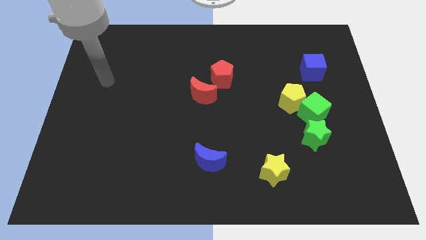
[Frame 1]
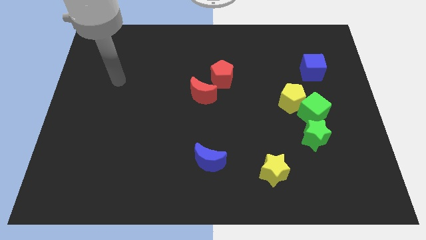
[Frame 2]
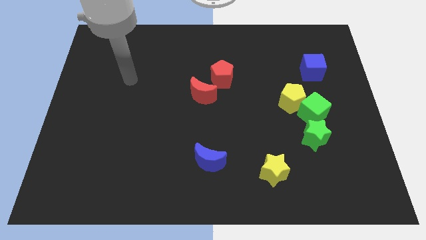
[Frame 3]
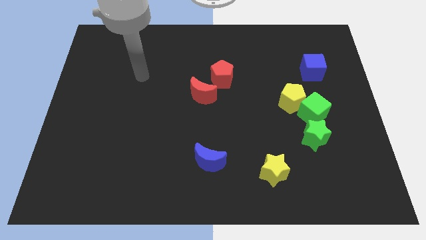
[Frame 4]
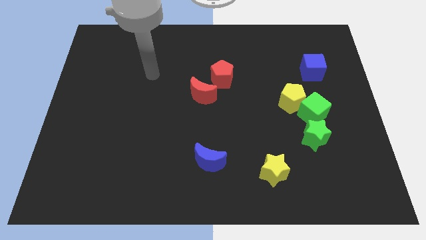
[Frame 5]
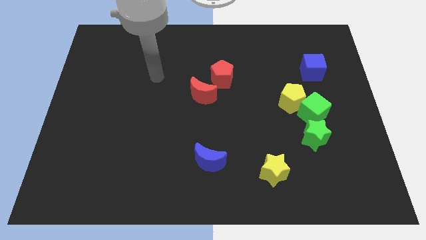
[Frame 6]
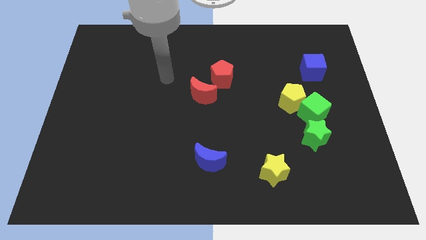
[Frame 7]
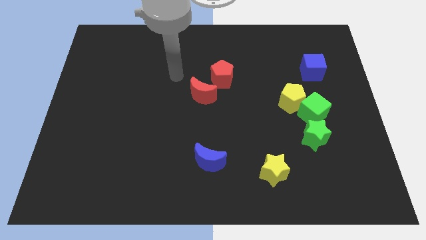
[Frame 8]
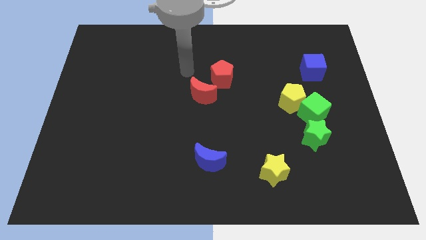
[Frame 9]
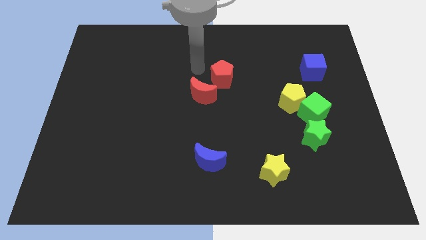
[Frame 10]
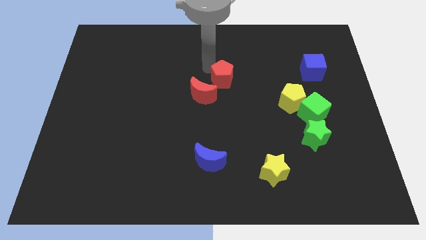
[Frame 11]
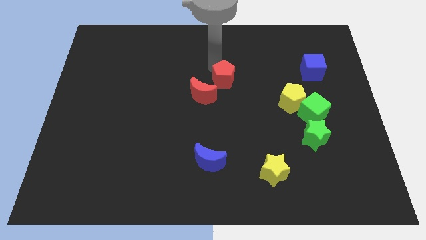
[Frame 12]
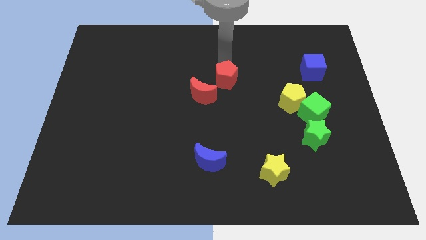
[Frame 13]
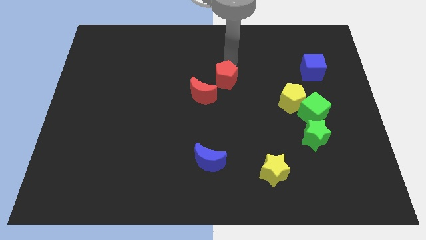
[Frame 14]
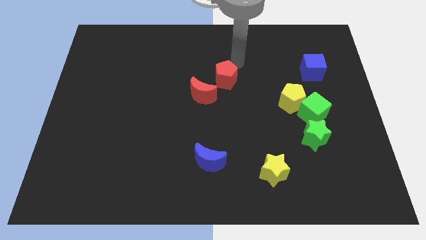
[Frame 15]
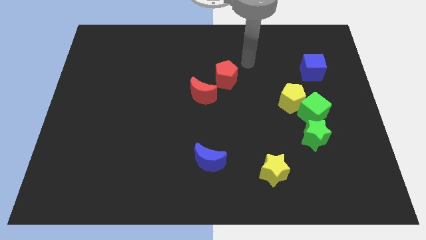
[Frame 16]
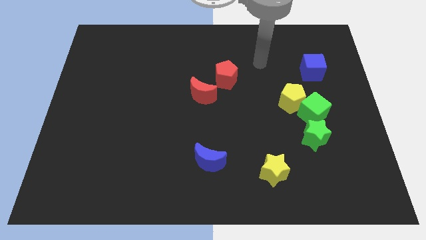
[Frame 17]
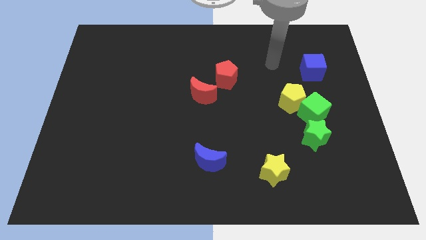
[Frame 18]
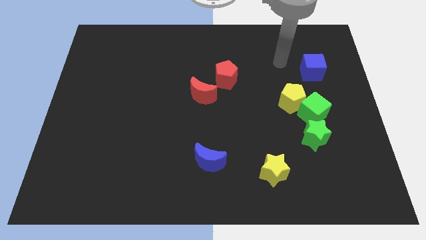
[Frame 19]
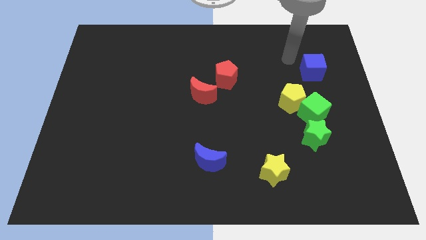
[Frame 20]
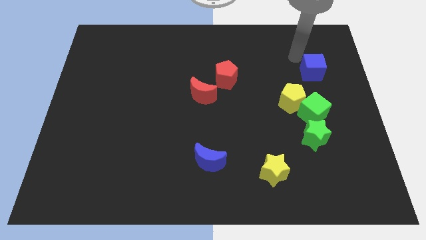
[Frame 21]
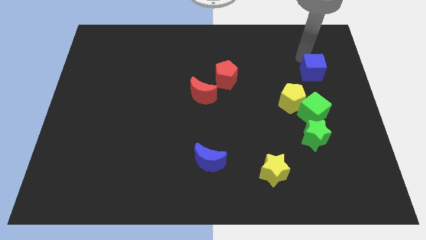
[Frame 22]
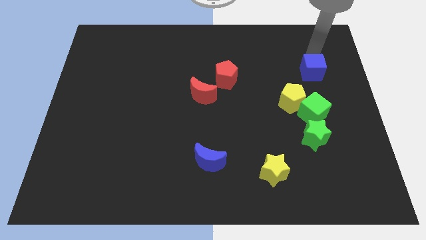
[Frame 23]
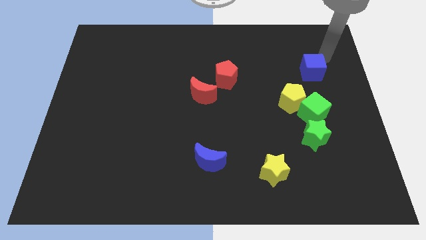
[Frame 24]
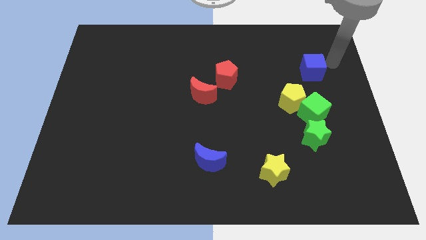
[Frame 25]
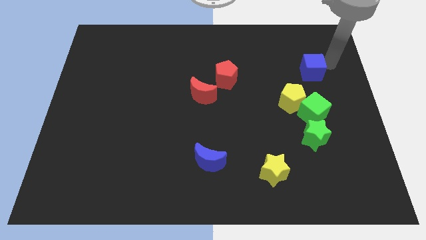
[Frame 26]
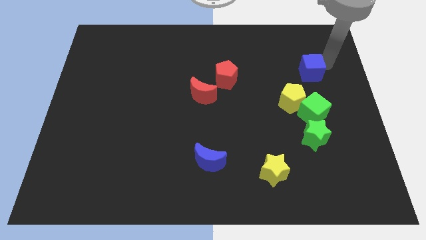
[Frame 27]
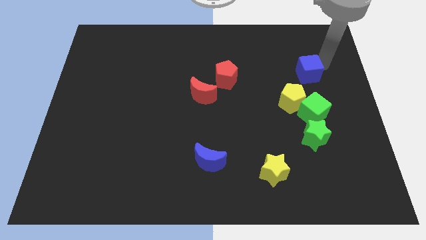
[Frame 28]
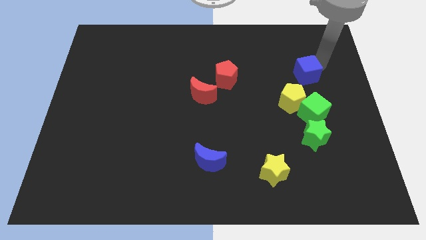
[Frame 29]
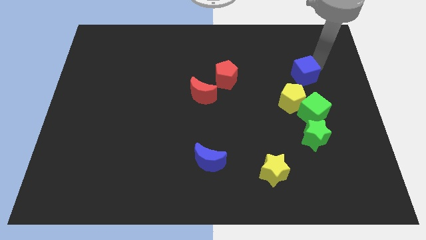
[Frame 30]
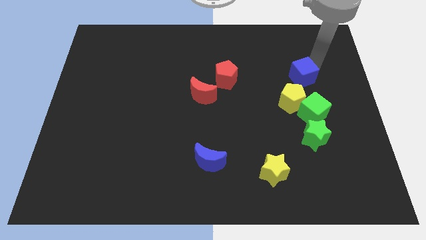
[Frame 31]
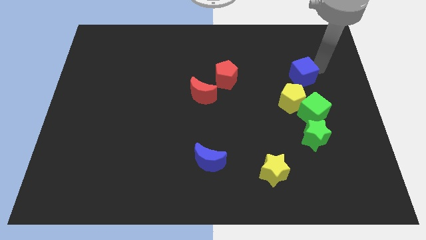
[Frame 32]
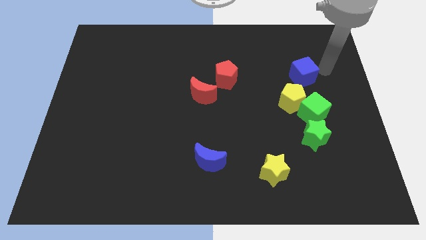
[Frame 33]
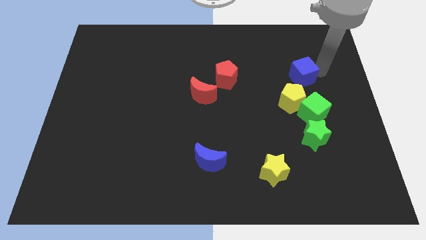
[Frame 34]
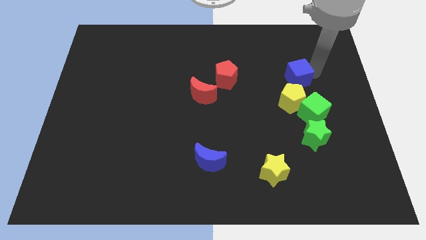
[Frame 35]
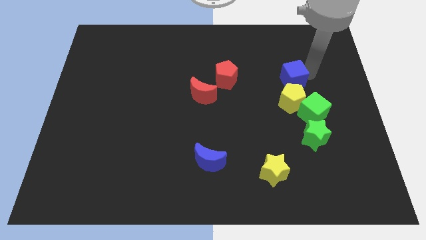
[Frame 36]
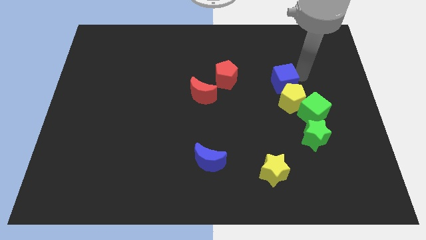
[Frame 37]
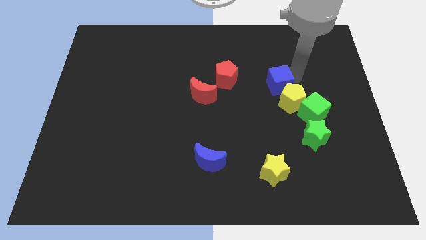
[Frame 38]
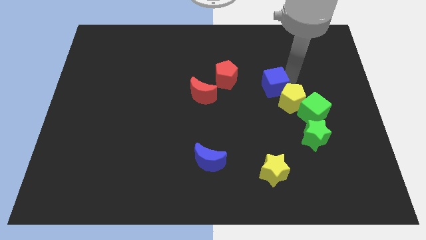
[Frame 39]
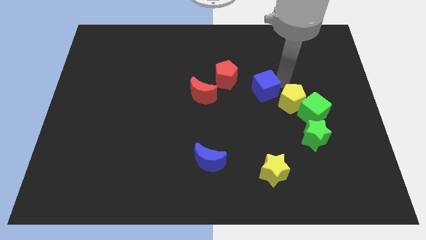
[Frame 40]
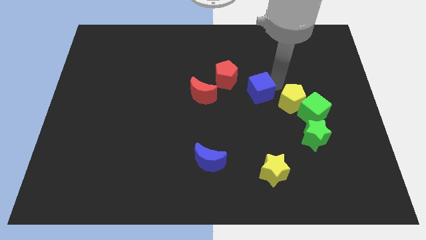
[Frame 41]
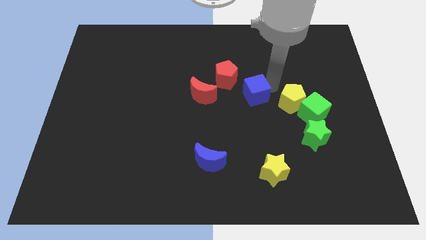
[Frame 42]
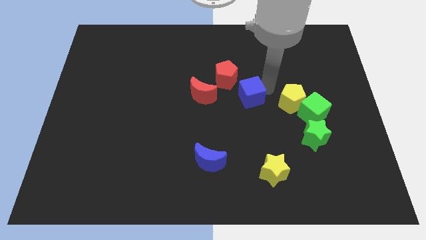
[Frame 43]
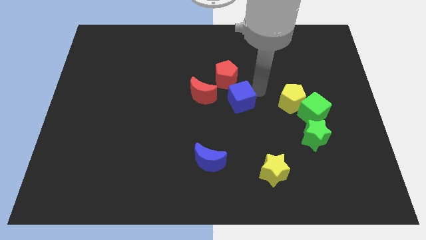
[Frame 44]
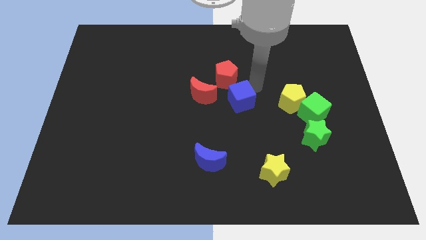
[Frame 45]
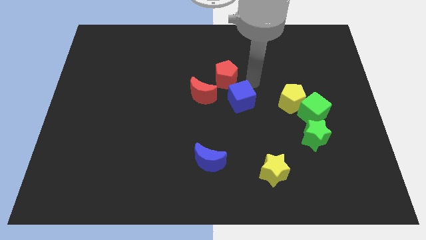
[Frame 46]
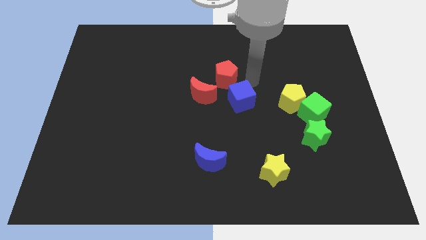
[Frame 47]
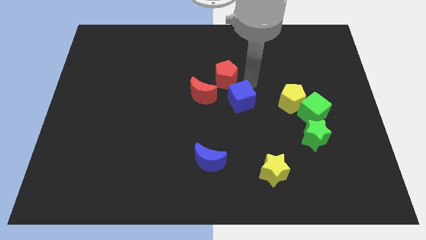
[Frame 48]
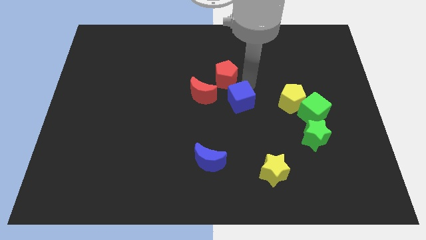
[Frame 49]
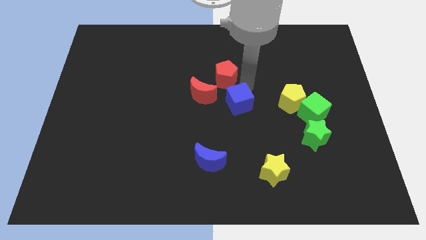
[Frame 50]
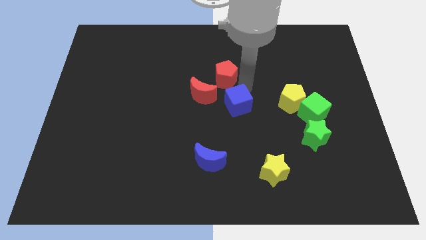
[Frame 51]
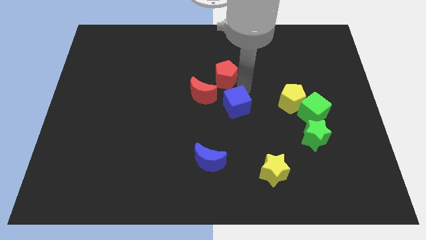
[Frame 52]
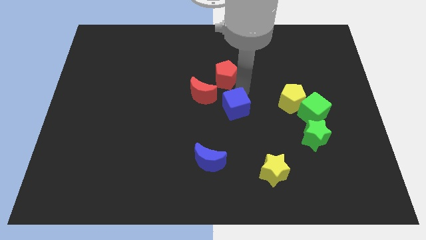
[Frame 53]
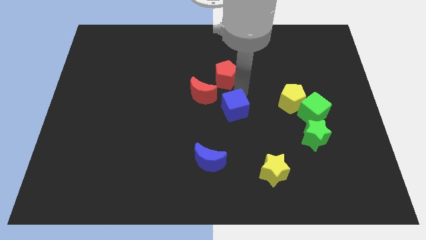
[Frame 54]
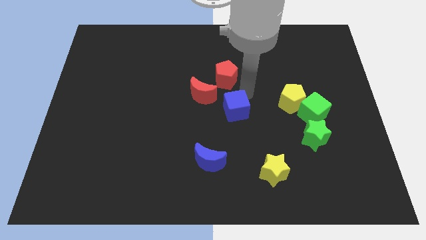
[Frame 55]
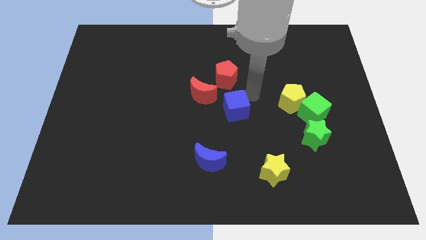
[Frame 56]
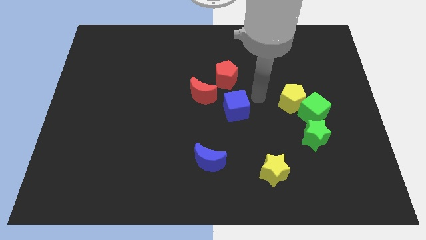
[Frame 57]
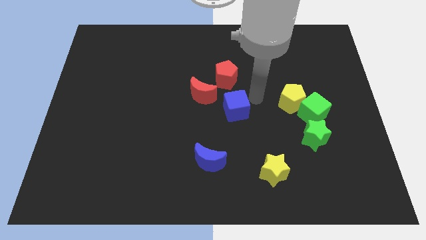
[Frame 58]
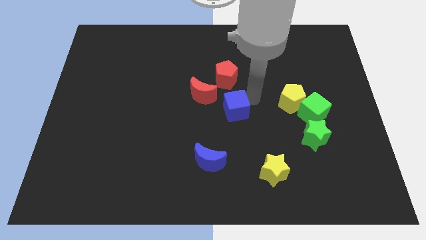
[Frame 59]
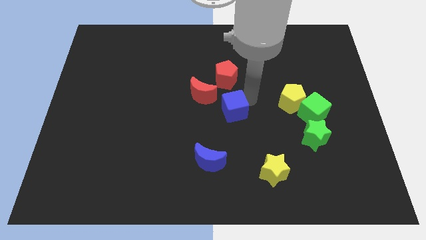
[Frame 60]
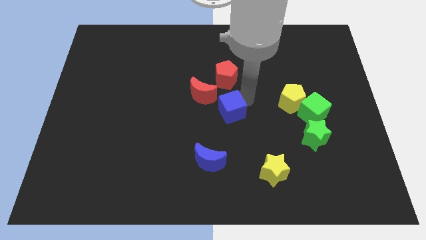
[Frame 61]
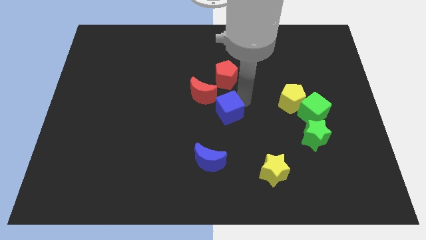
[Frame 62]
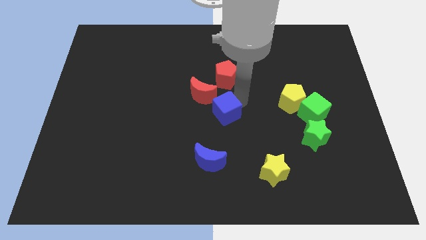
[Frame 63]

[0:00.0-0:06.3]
put the blue cube above the blue moon

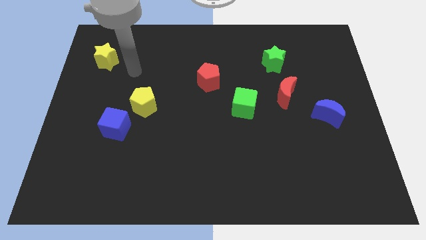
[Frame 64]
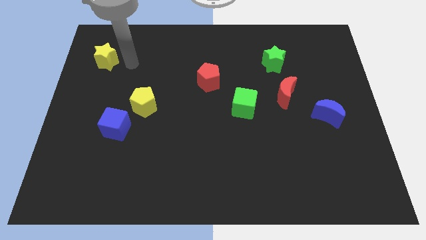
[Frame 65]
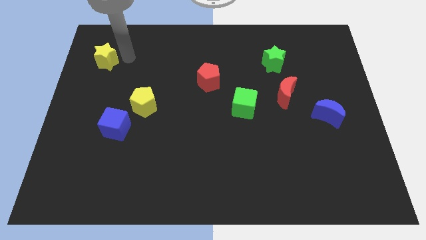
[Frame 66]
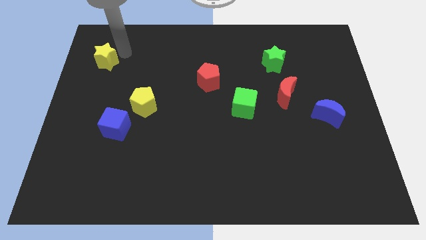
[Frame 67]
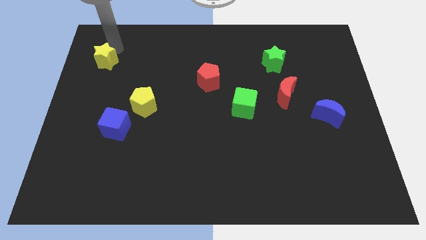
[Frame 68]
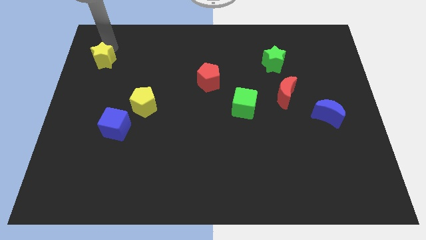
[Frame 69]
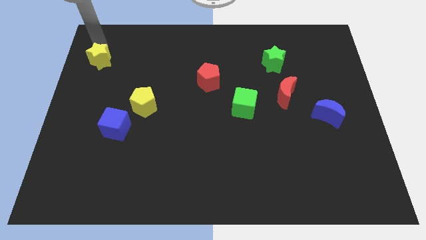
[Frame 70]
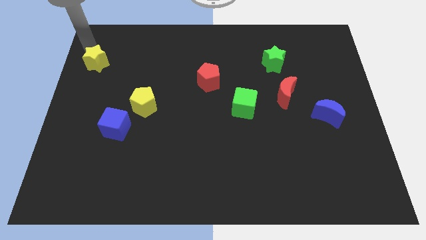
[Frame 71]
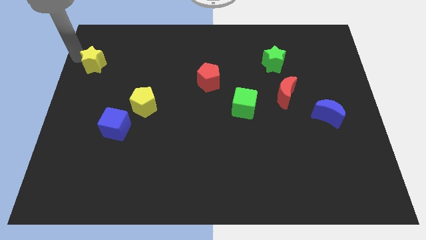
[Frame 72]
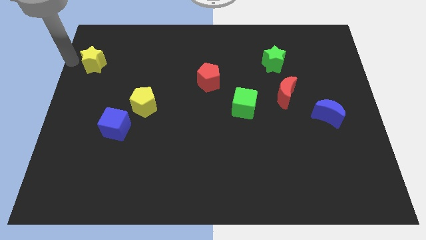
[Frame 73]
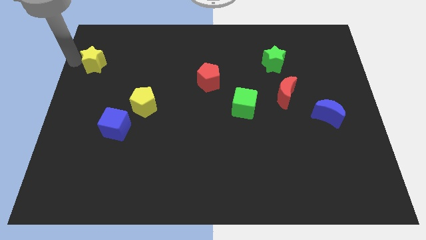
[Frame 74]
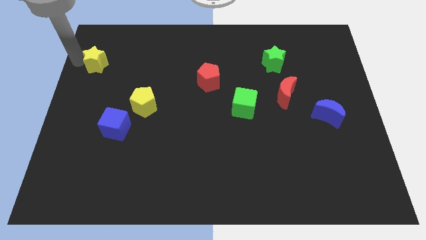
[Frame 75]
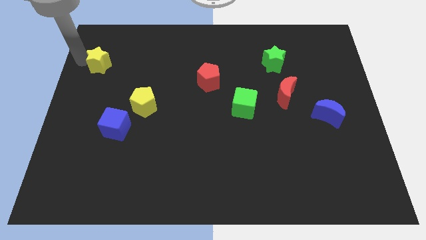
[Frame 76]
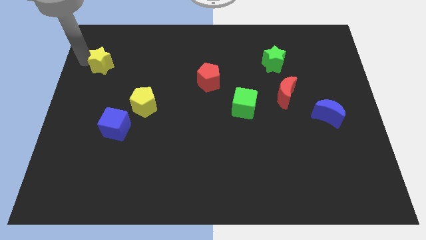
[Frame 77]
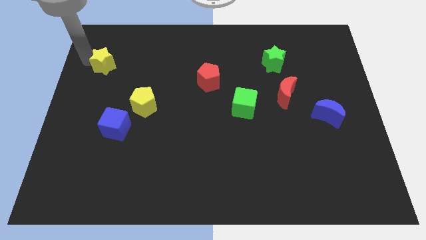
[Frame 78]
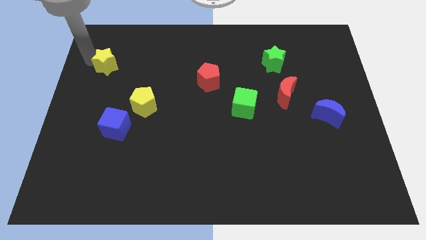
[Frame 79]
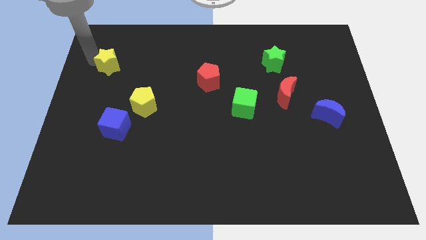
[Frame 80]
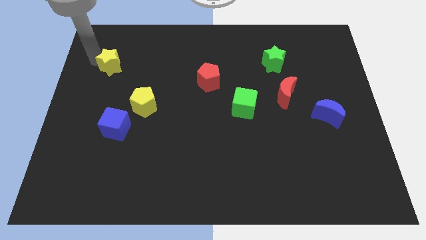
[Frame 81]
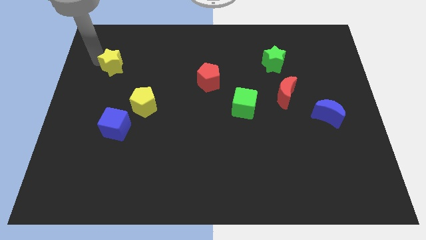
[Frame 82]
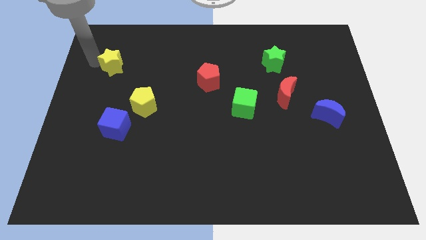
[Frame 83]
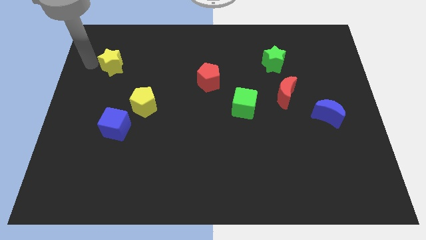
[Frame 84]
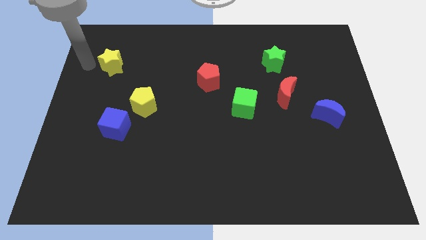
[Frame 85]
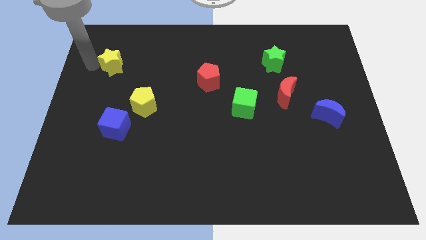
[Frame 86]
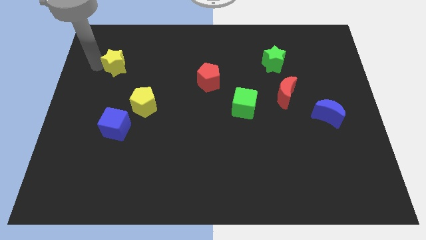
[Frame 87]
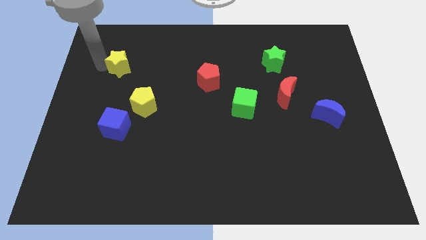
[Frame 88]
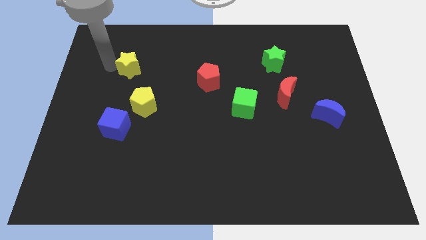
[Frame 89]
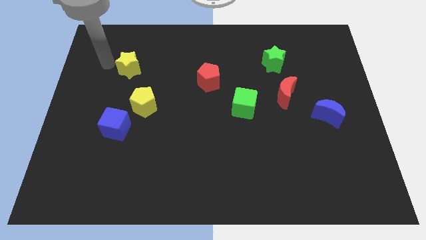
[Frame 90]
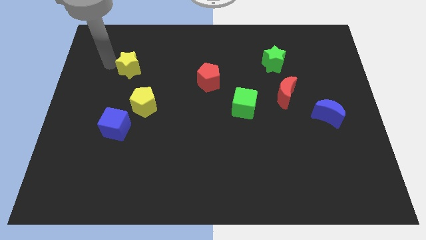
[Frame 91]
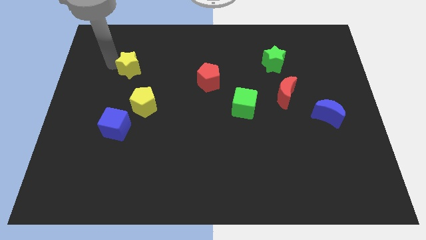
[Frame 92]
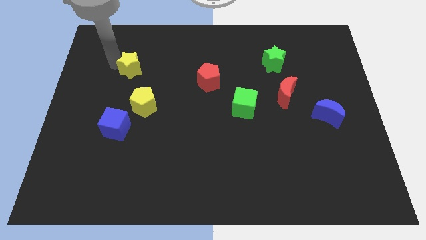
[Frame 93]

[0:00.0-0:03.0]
put the yellow star to the top of the yellow pentagon
